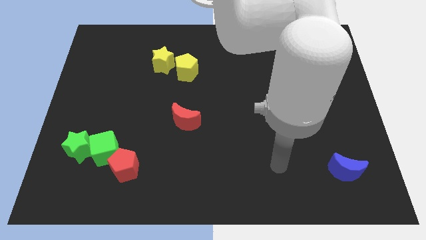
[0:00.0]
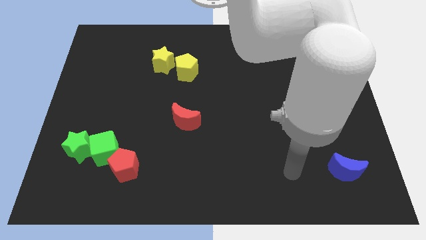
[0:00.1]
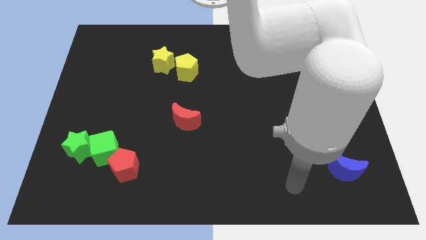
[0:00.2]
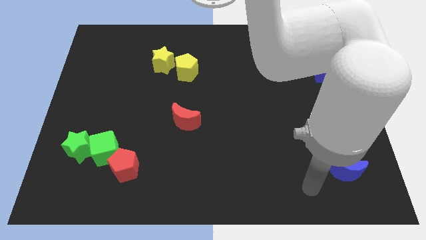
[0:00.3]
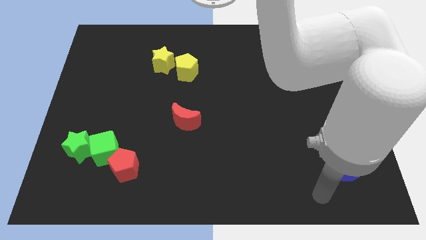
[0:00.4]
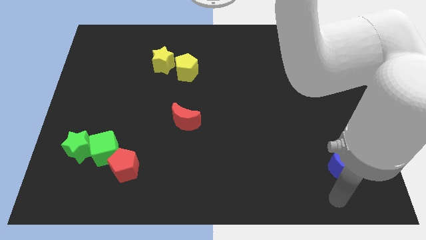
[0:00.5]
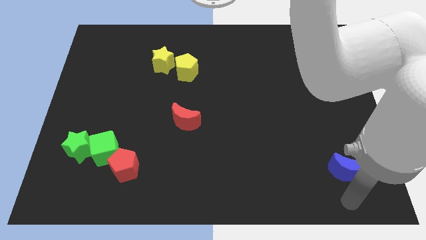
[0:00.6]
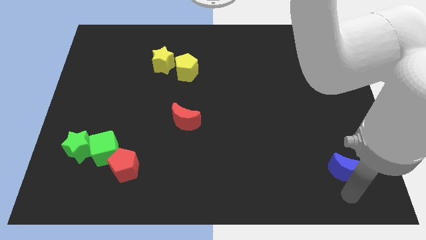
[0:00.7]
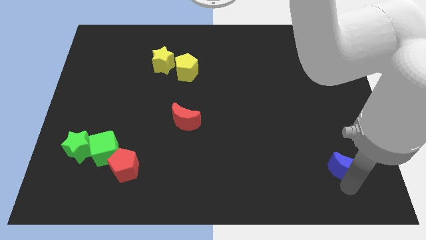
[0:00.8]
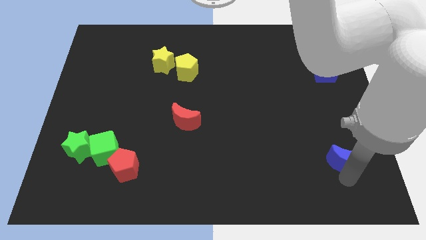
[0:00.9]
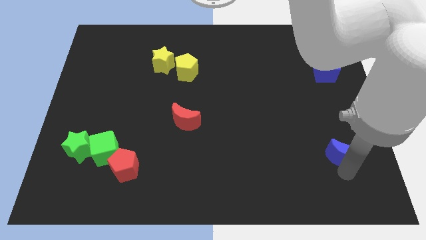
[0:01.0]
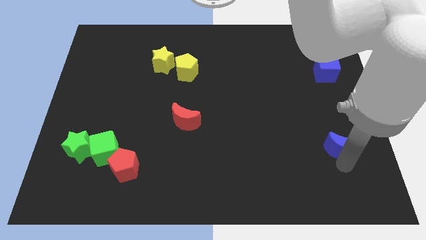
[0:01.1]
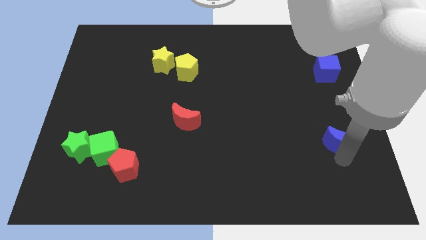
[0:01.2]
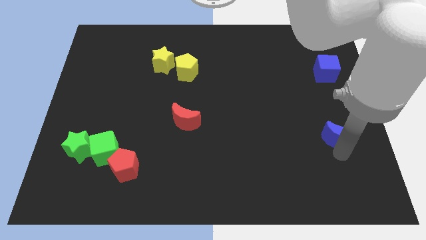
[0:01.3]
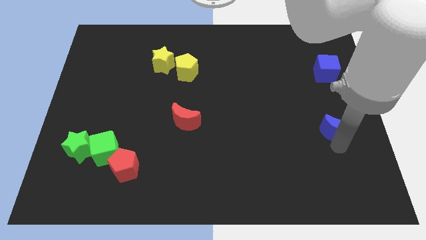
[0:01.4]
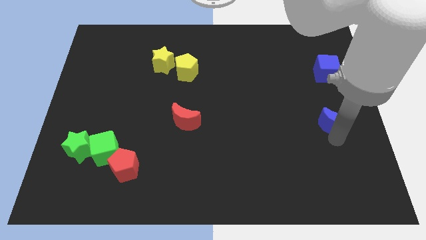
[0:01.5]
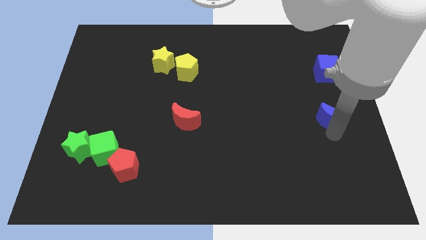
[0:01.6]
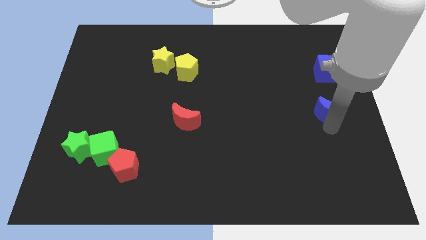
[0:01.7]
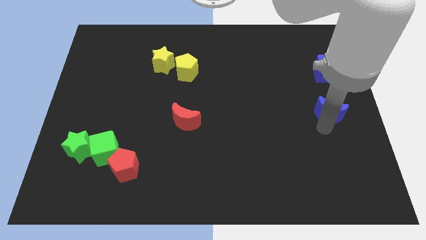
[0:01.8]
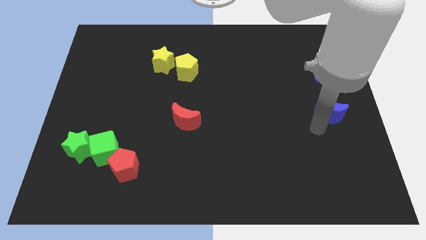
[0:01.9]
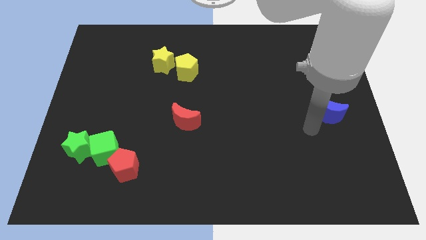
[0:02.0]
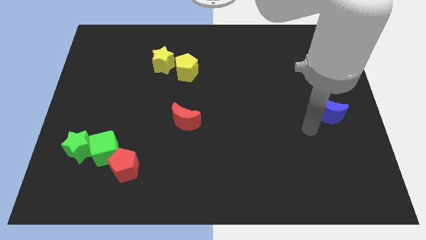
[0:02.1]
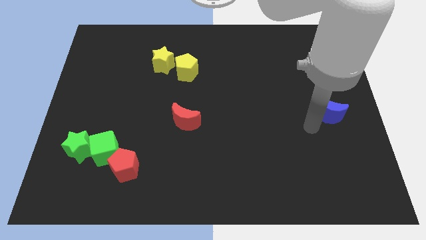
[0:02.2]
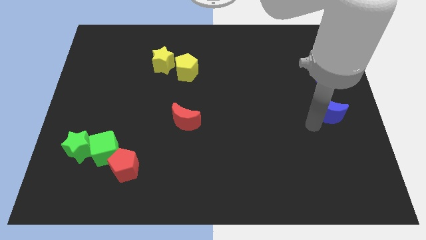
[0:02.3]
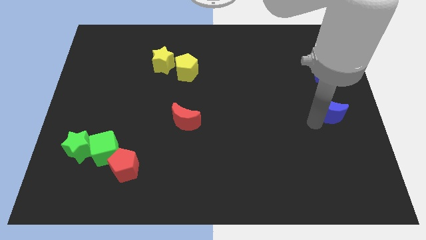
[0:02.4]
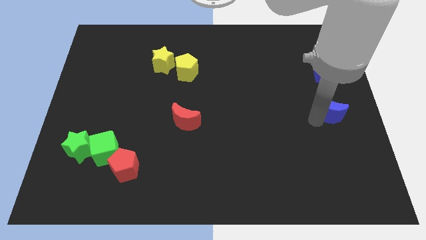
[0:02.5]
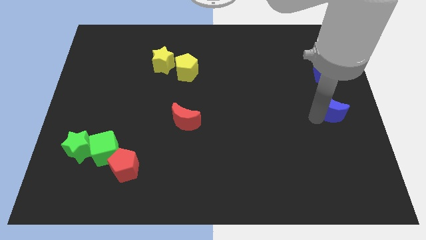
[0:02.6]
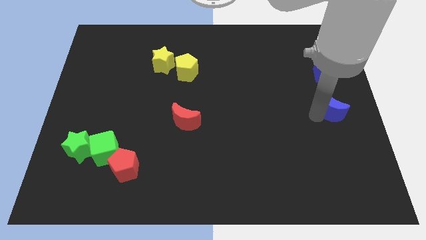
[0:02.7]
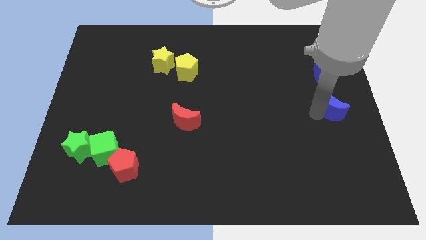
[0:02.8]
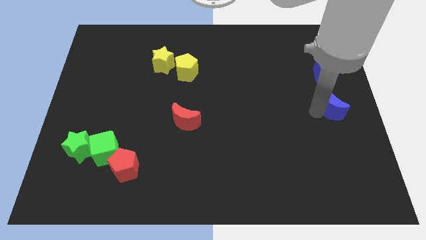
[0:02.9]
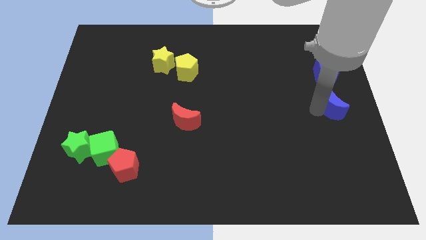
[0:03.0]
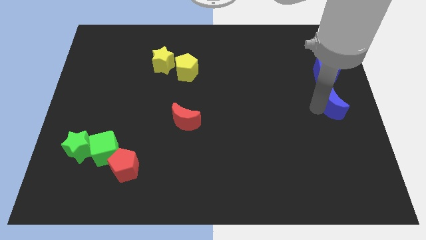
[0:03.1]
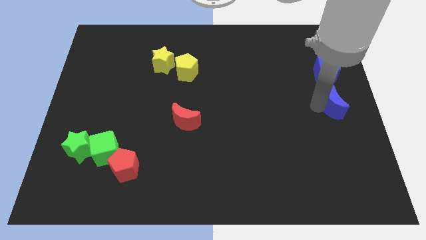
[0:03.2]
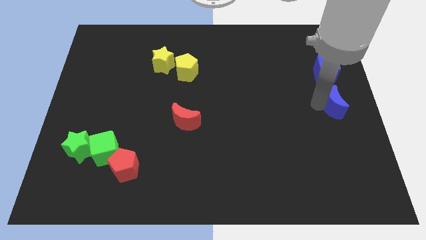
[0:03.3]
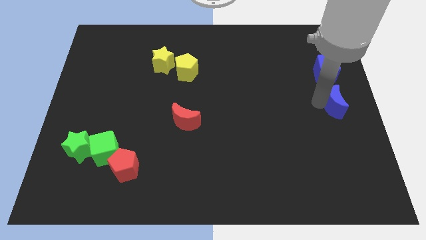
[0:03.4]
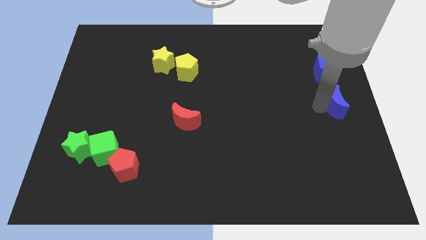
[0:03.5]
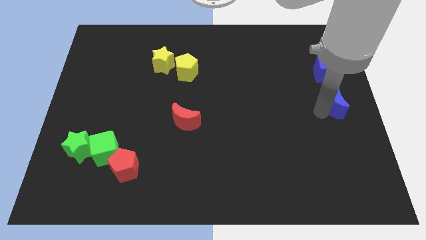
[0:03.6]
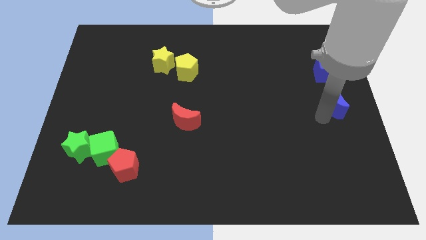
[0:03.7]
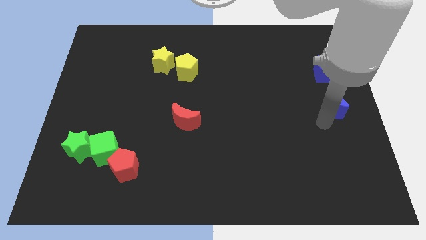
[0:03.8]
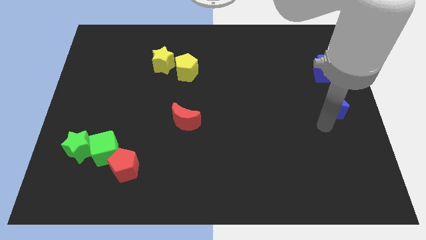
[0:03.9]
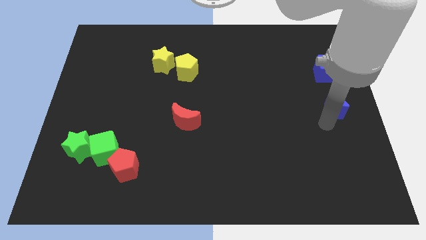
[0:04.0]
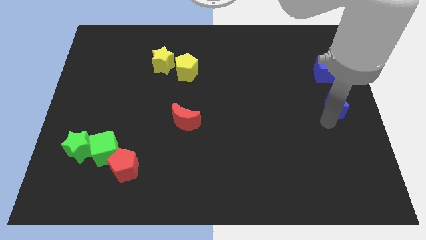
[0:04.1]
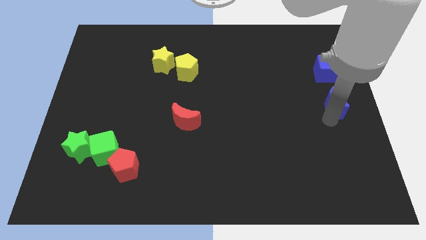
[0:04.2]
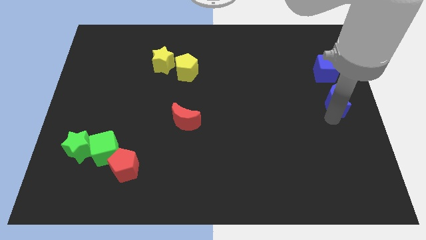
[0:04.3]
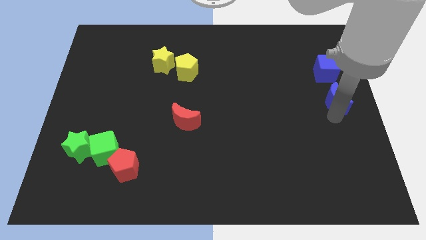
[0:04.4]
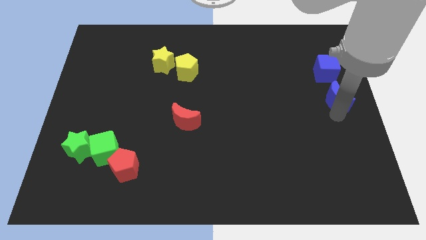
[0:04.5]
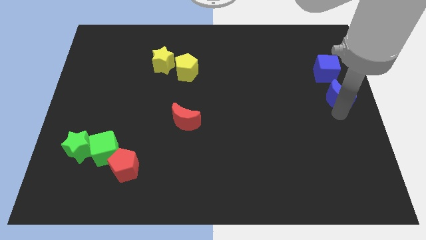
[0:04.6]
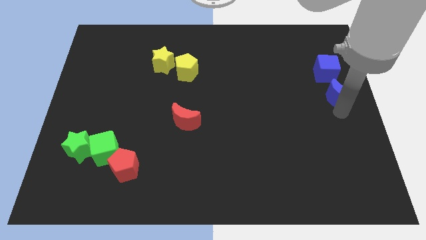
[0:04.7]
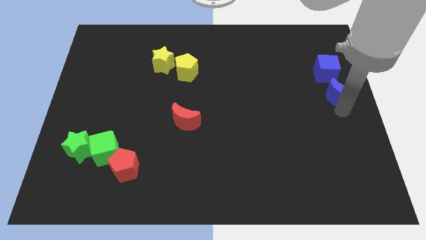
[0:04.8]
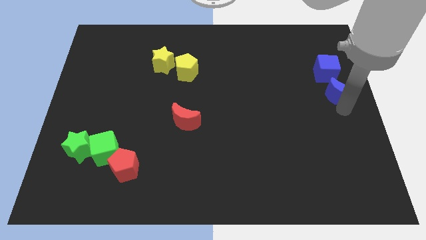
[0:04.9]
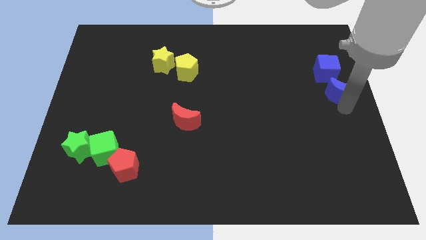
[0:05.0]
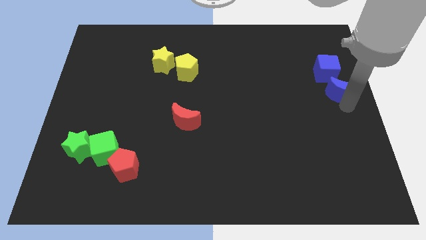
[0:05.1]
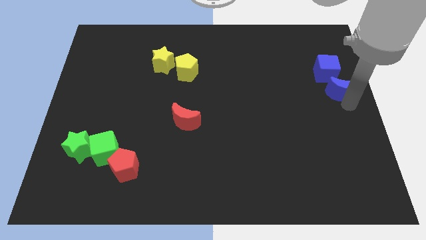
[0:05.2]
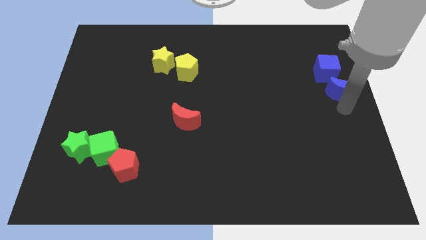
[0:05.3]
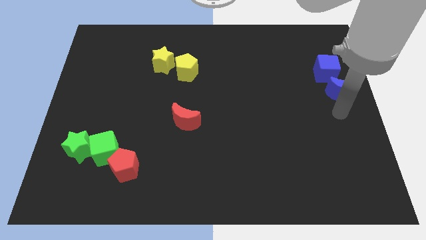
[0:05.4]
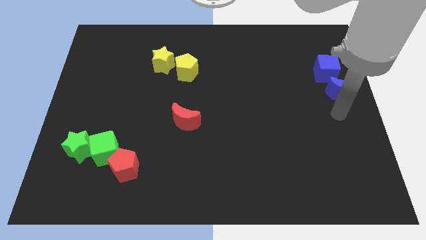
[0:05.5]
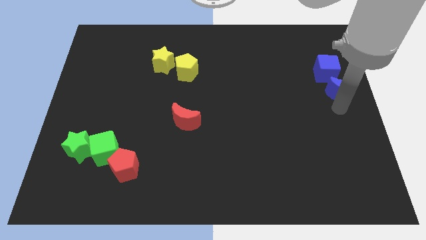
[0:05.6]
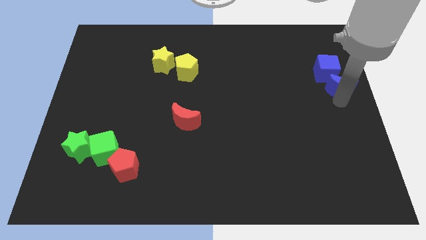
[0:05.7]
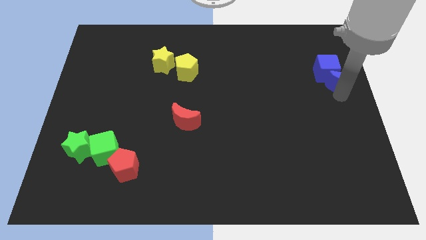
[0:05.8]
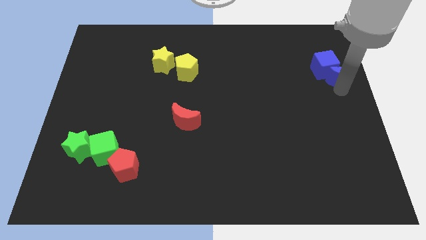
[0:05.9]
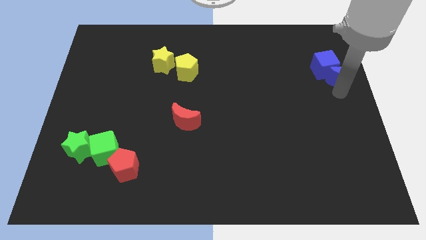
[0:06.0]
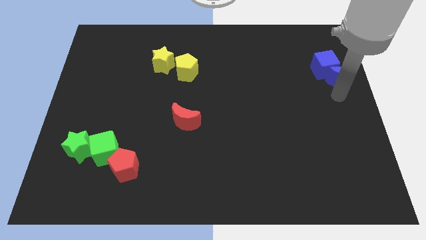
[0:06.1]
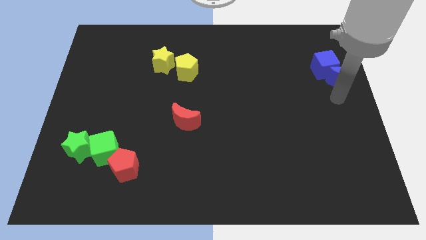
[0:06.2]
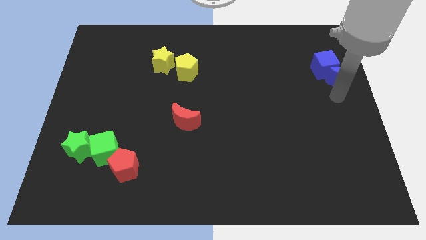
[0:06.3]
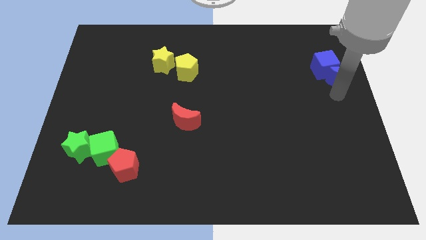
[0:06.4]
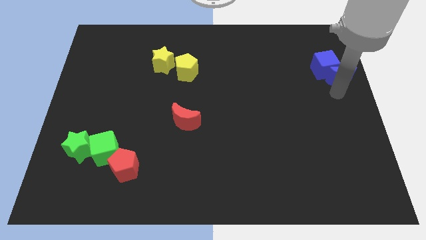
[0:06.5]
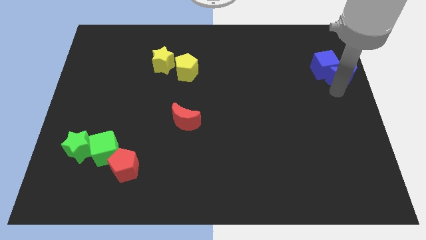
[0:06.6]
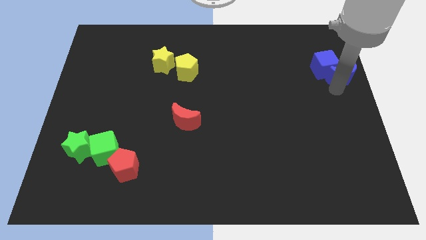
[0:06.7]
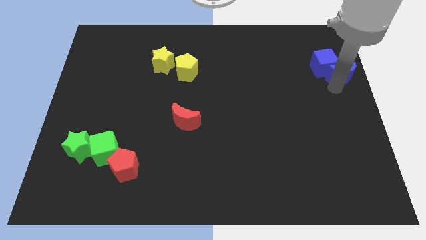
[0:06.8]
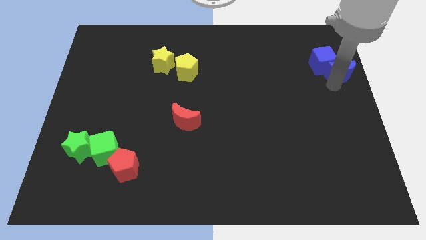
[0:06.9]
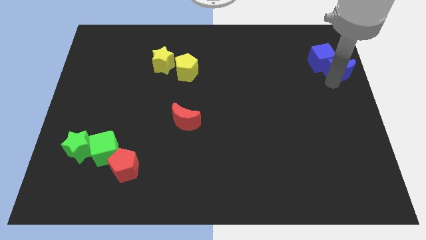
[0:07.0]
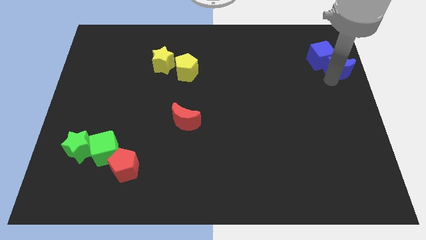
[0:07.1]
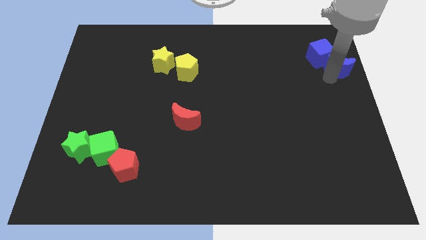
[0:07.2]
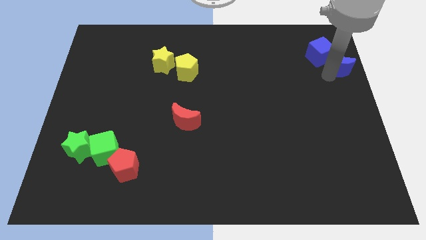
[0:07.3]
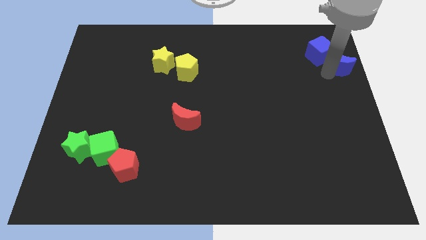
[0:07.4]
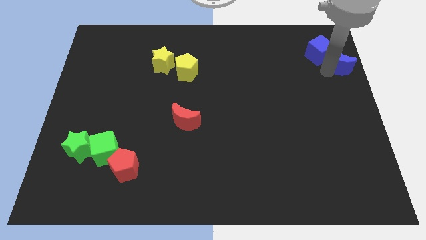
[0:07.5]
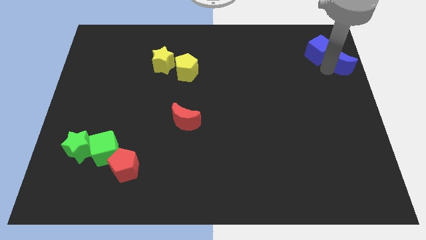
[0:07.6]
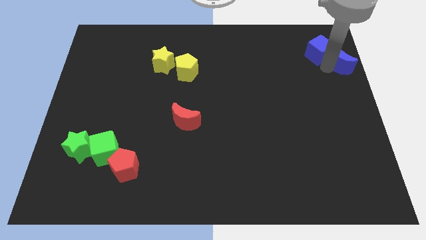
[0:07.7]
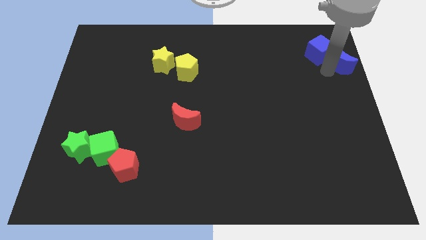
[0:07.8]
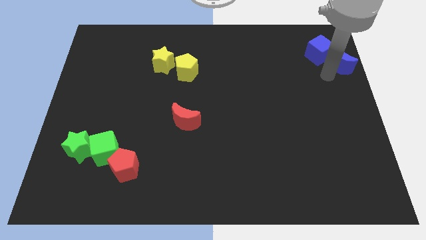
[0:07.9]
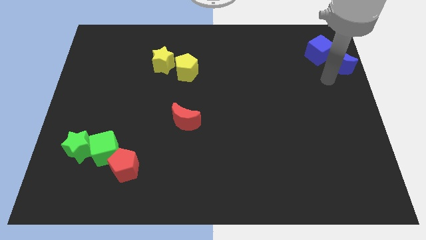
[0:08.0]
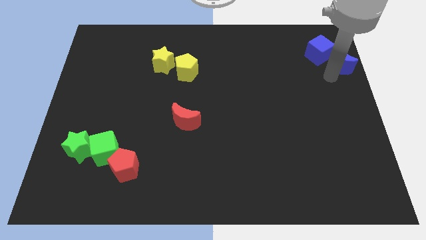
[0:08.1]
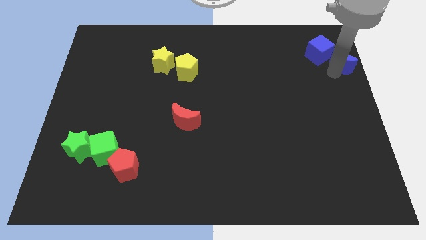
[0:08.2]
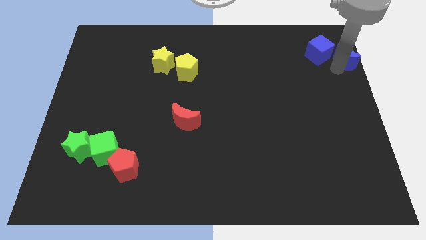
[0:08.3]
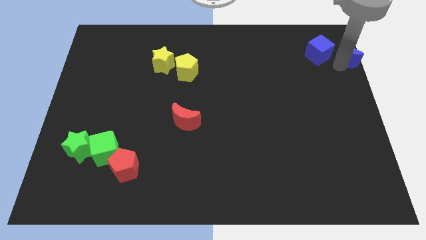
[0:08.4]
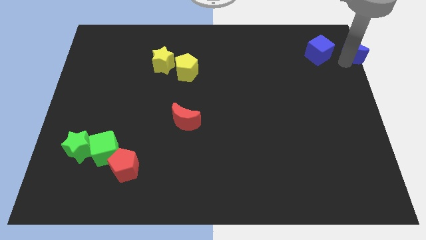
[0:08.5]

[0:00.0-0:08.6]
push the blue moon to the top right
